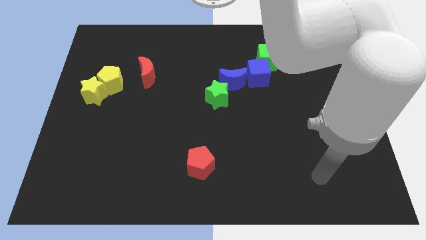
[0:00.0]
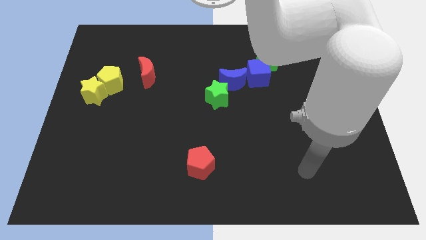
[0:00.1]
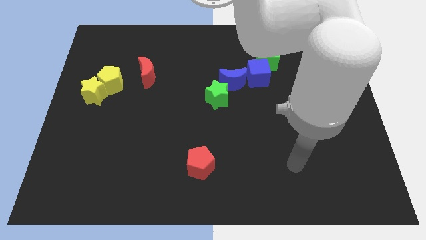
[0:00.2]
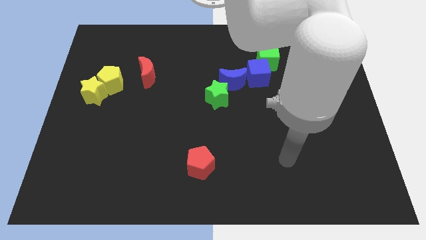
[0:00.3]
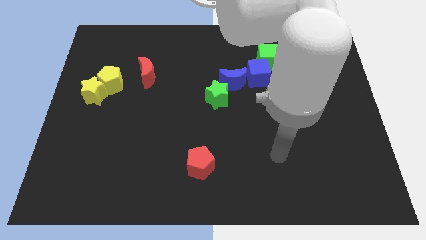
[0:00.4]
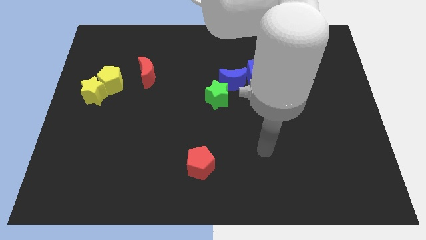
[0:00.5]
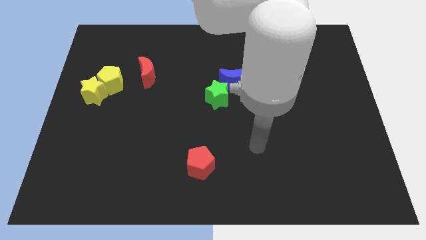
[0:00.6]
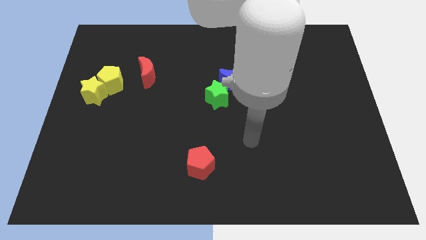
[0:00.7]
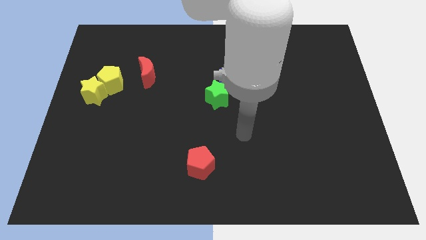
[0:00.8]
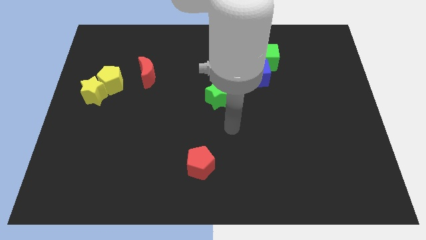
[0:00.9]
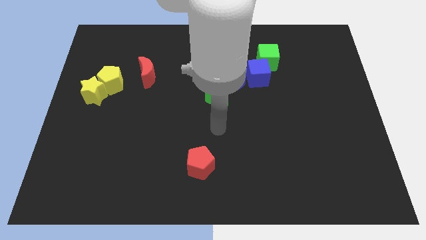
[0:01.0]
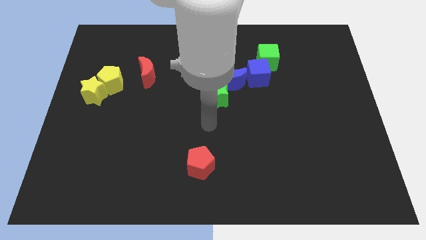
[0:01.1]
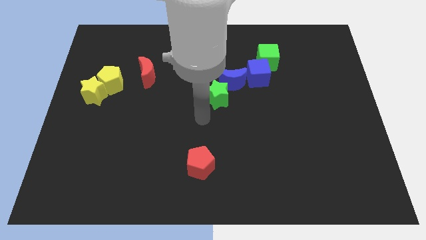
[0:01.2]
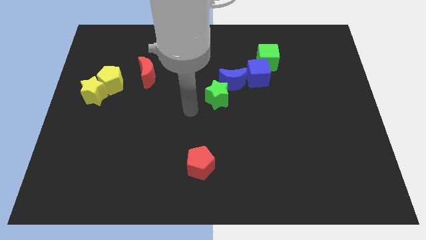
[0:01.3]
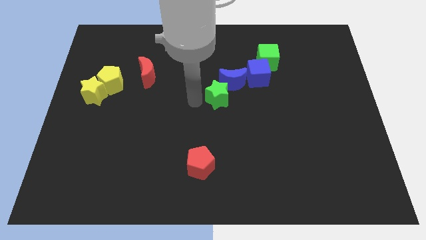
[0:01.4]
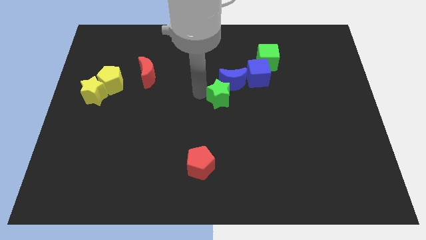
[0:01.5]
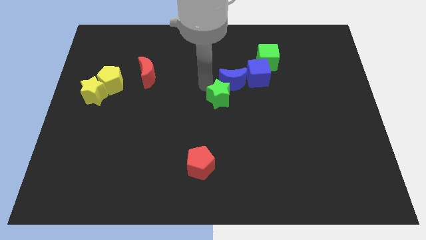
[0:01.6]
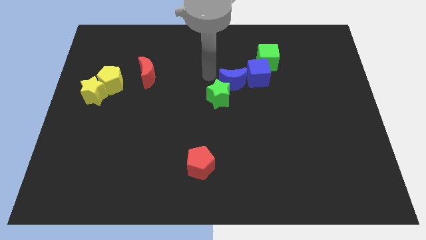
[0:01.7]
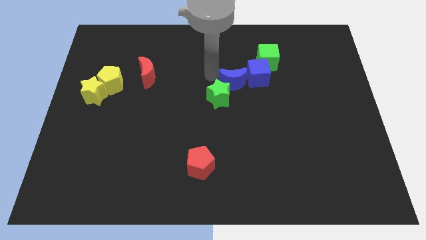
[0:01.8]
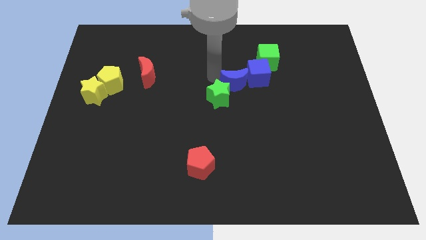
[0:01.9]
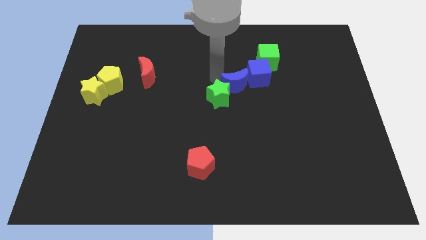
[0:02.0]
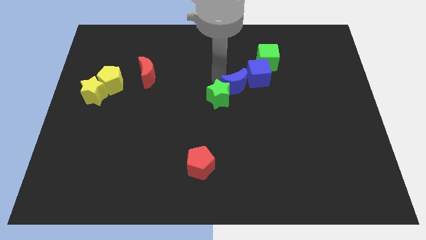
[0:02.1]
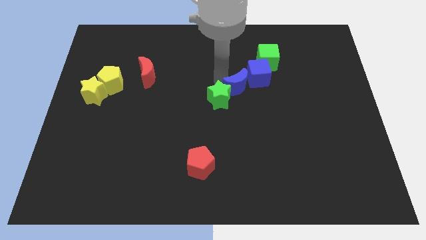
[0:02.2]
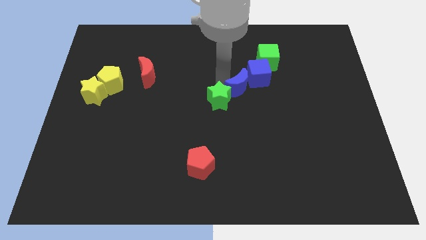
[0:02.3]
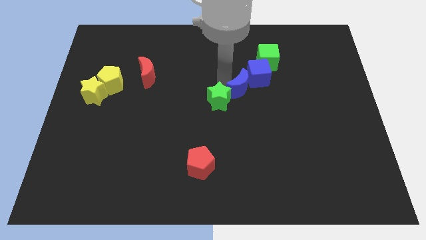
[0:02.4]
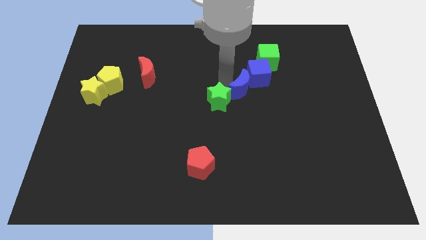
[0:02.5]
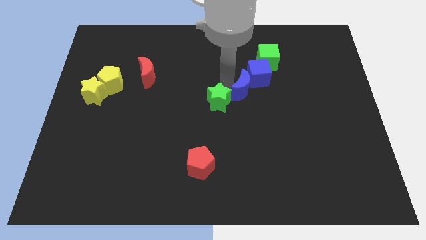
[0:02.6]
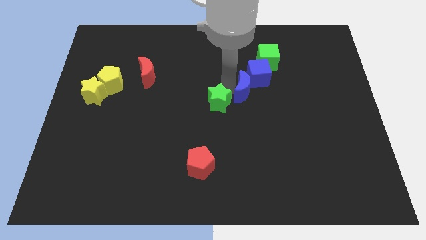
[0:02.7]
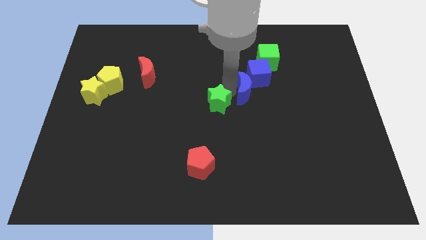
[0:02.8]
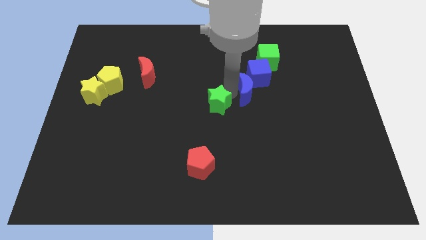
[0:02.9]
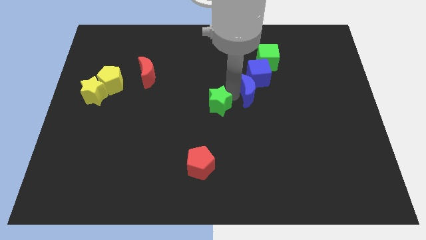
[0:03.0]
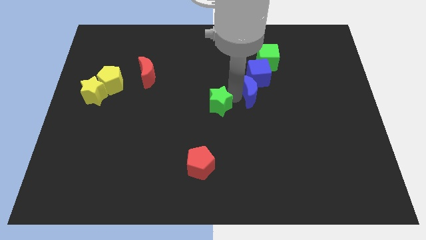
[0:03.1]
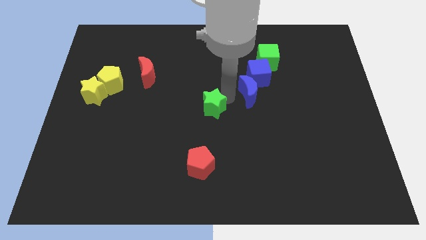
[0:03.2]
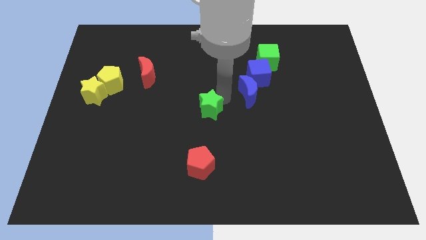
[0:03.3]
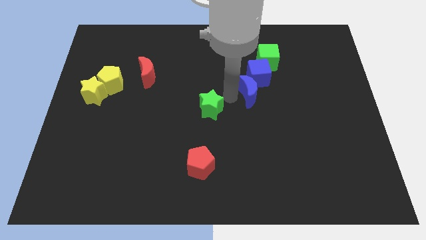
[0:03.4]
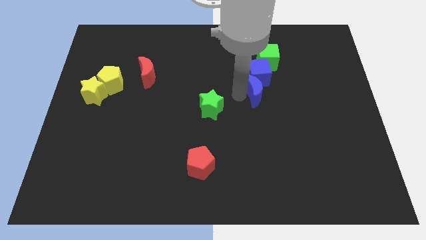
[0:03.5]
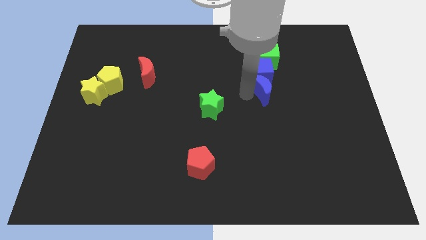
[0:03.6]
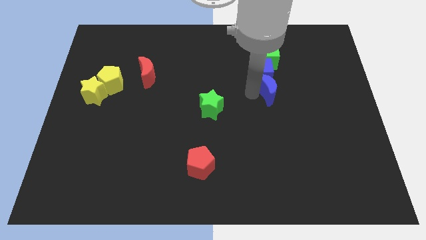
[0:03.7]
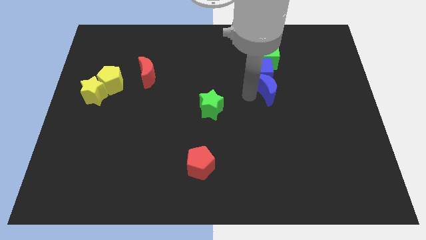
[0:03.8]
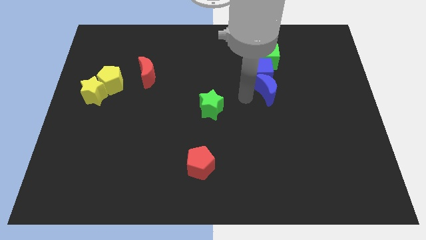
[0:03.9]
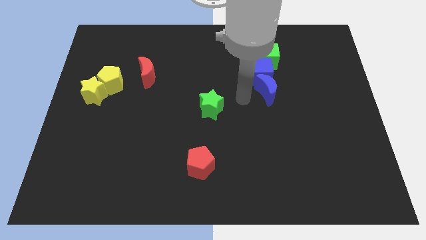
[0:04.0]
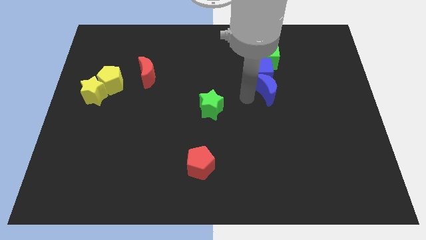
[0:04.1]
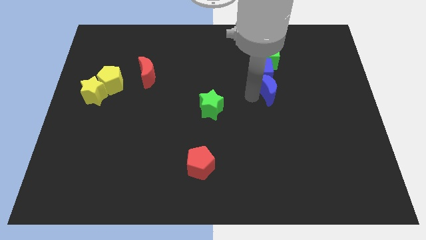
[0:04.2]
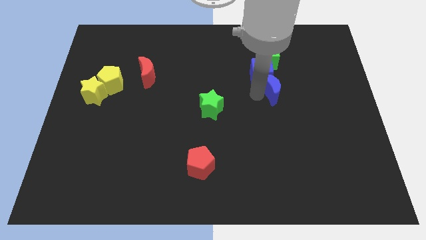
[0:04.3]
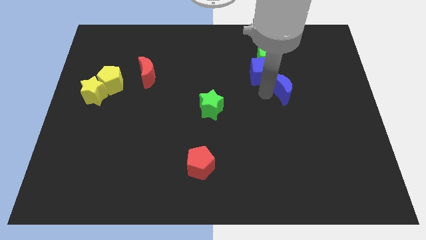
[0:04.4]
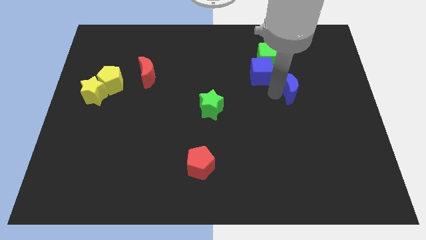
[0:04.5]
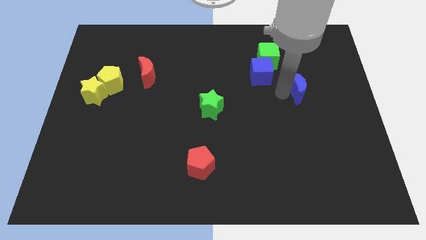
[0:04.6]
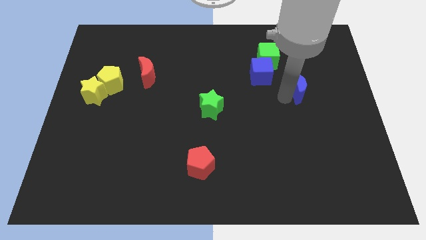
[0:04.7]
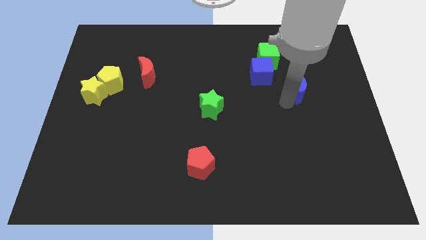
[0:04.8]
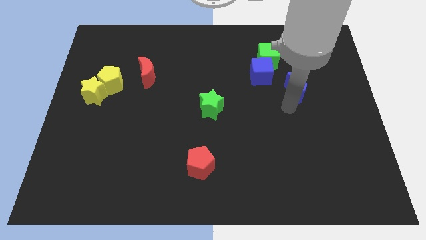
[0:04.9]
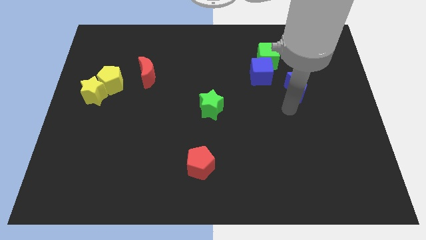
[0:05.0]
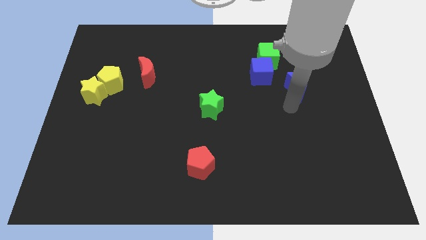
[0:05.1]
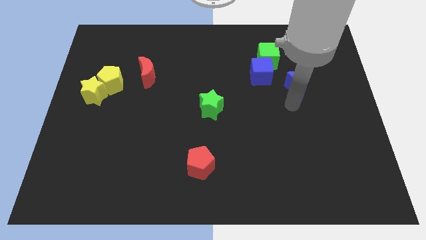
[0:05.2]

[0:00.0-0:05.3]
move the blue moon to the right side of the blue cube

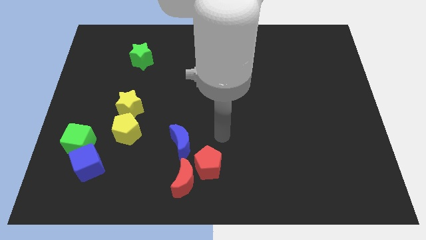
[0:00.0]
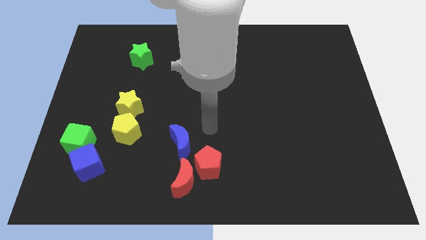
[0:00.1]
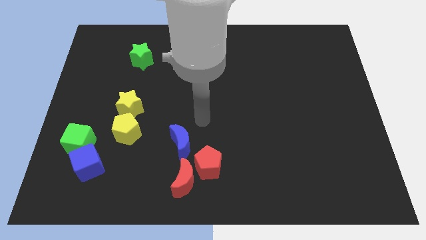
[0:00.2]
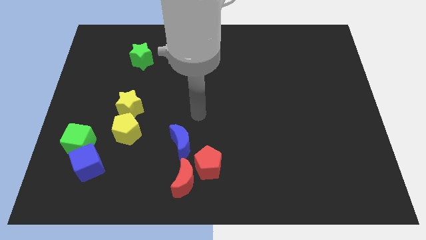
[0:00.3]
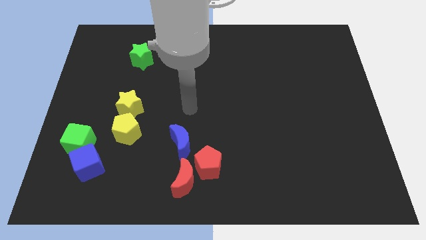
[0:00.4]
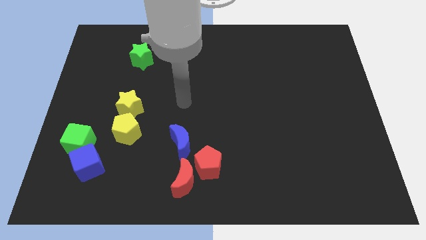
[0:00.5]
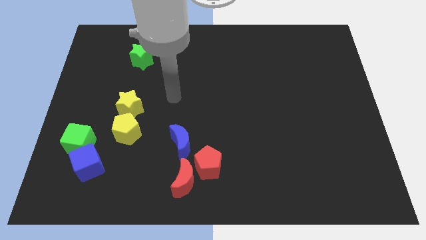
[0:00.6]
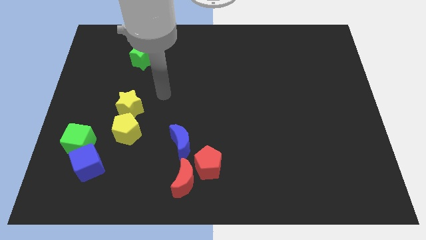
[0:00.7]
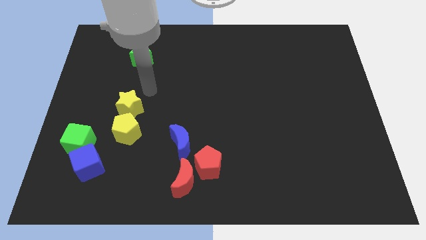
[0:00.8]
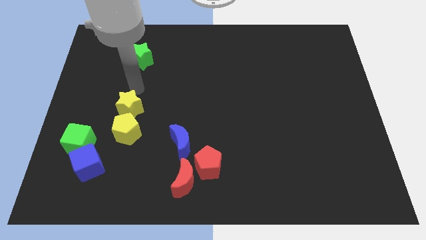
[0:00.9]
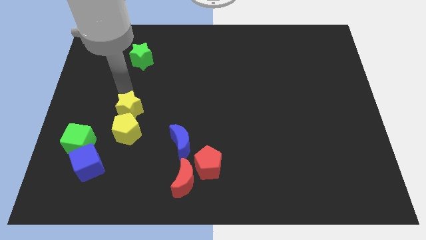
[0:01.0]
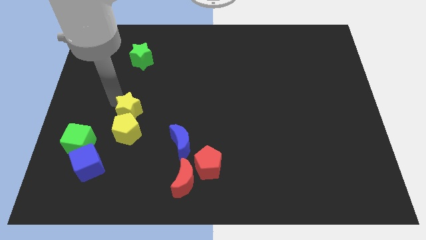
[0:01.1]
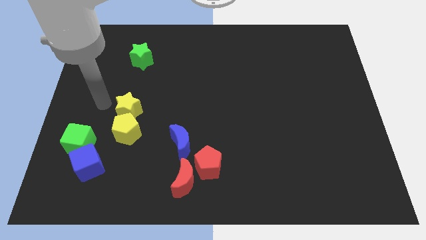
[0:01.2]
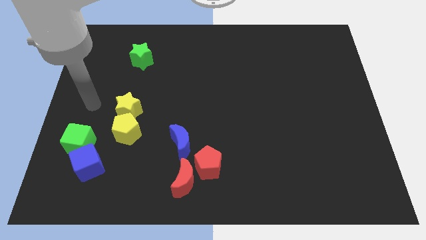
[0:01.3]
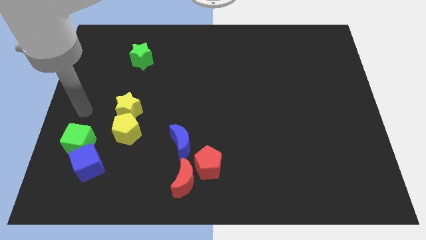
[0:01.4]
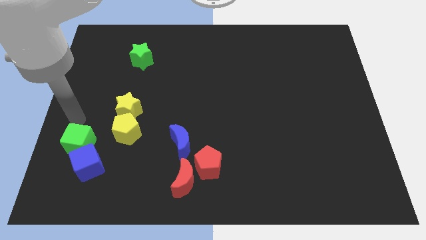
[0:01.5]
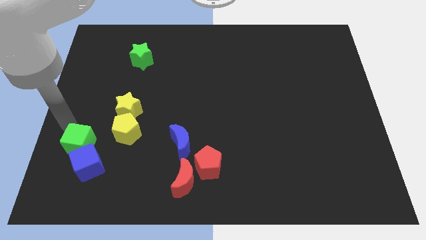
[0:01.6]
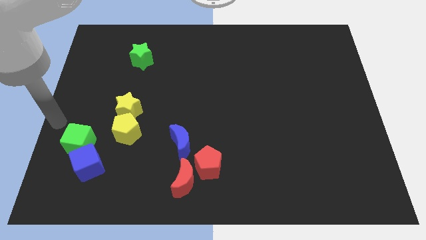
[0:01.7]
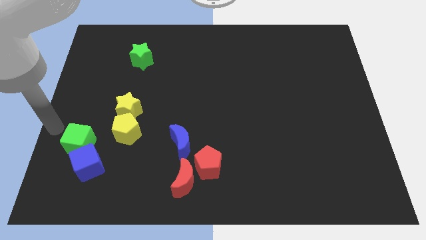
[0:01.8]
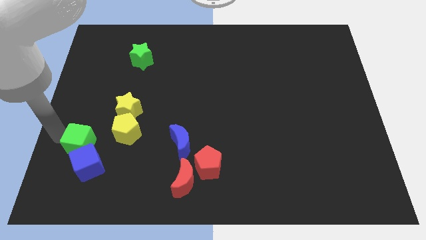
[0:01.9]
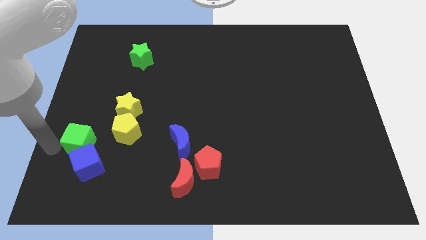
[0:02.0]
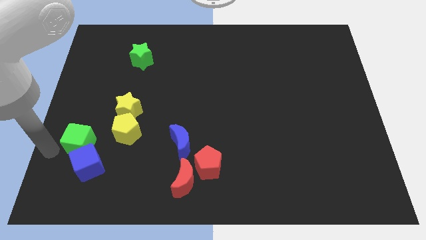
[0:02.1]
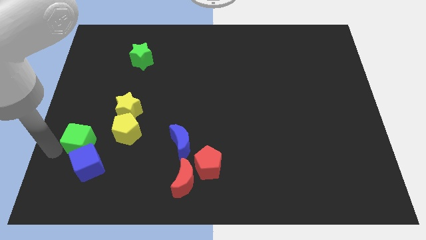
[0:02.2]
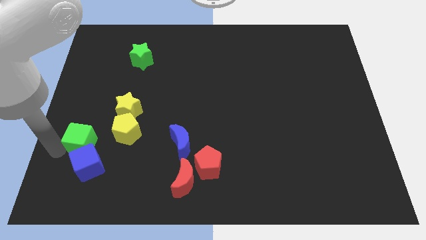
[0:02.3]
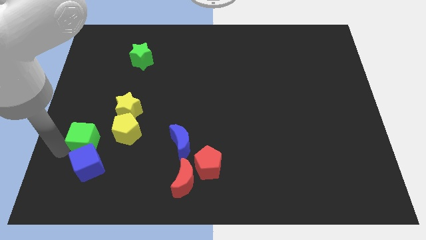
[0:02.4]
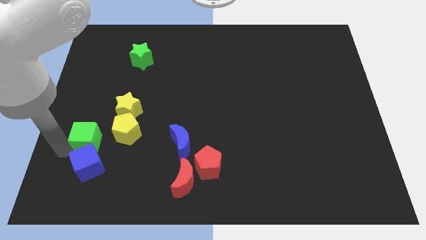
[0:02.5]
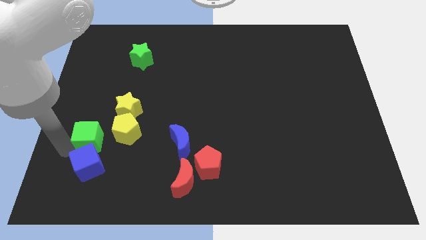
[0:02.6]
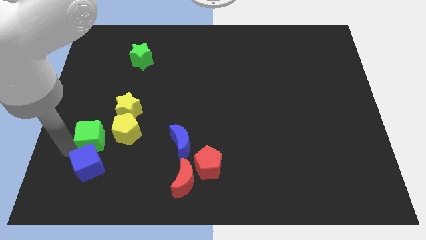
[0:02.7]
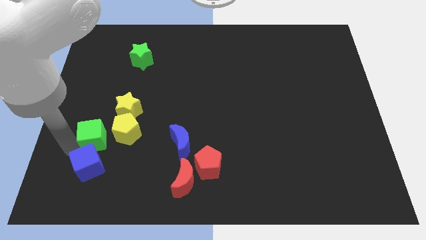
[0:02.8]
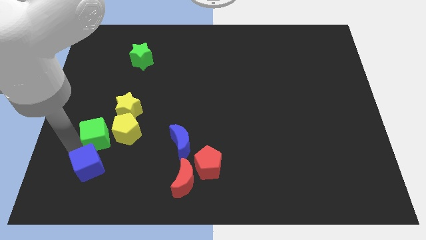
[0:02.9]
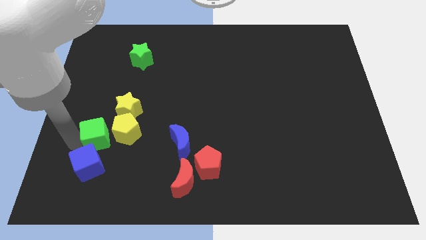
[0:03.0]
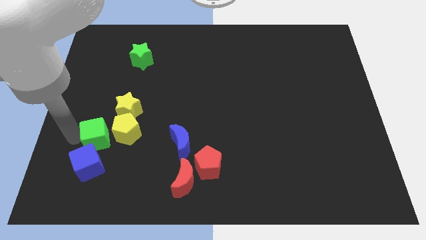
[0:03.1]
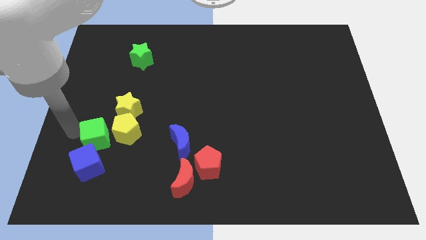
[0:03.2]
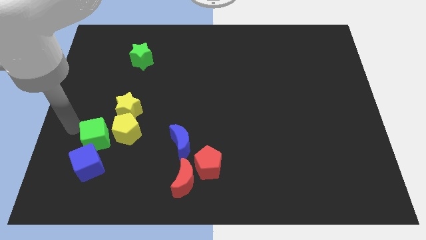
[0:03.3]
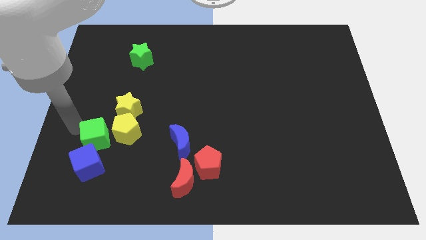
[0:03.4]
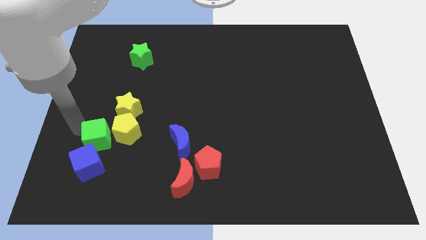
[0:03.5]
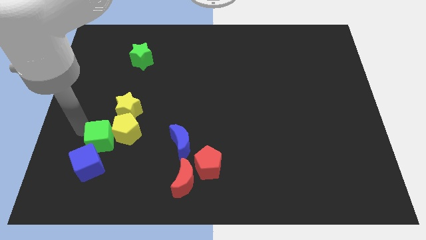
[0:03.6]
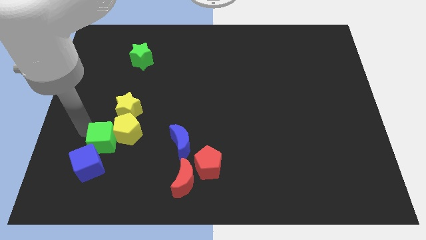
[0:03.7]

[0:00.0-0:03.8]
put the green cube below the yellow star
